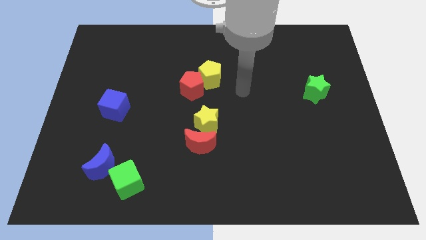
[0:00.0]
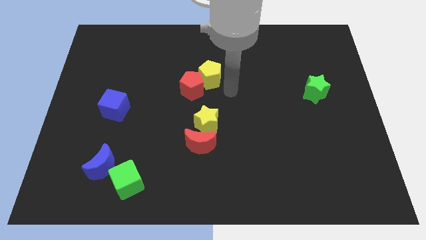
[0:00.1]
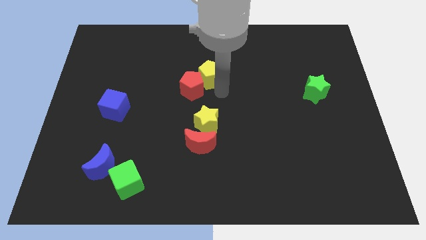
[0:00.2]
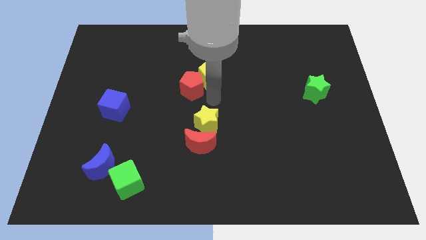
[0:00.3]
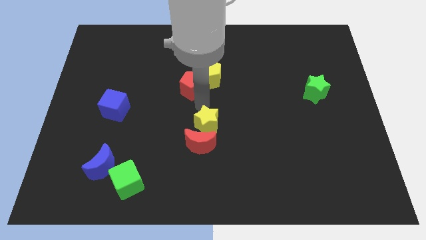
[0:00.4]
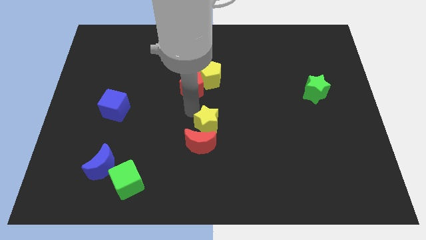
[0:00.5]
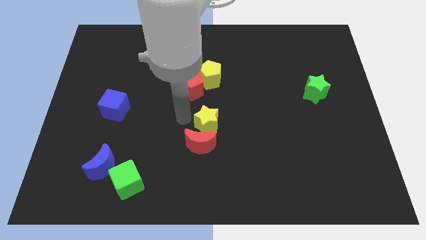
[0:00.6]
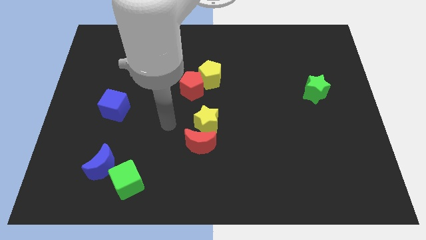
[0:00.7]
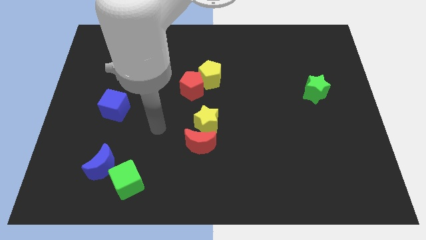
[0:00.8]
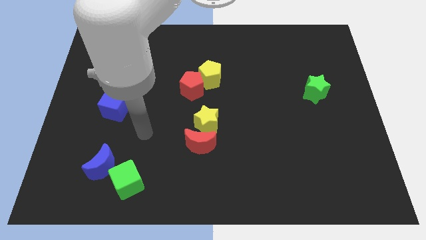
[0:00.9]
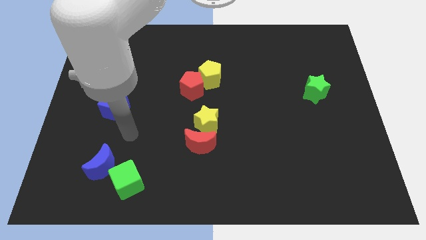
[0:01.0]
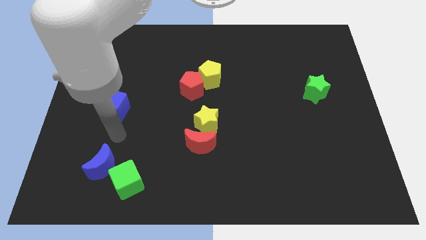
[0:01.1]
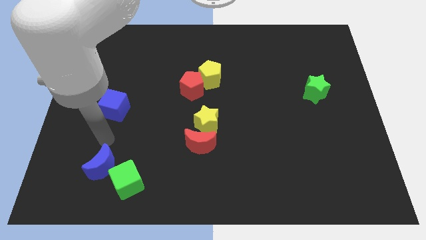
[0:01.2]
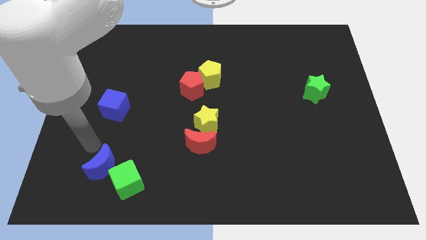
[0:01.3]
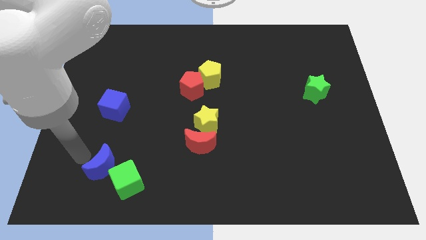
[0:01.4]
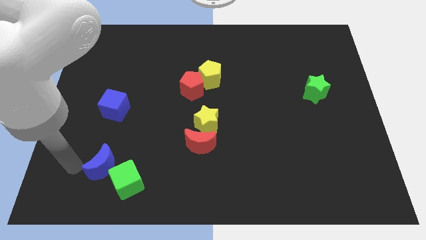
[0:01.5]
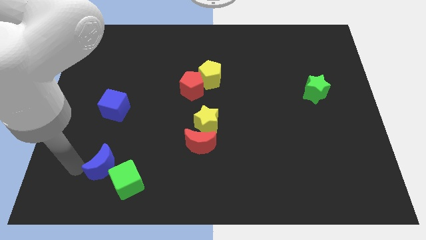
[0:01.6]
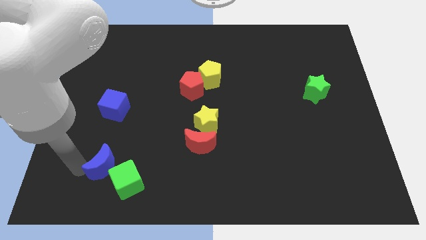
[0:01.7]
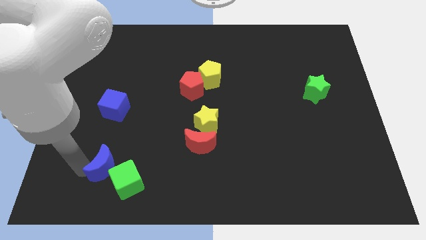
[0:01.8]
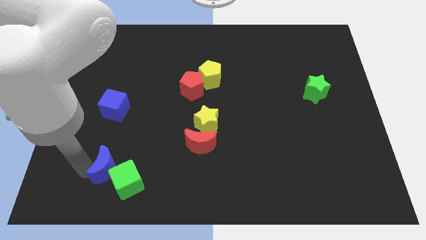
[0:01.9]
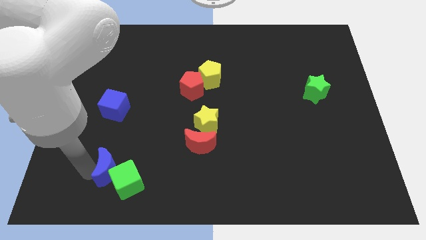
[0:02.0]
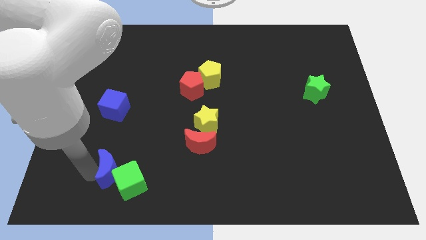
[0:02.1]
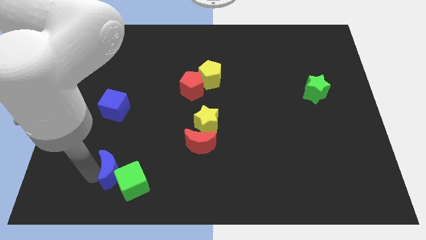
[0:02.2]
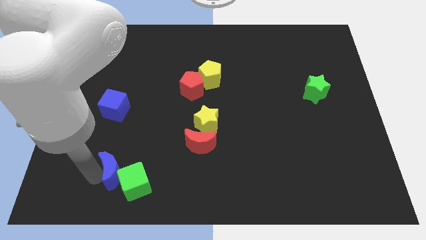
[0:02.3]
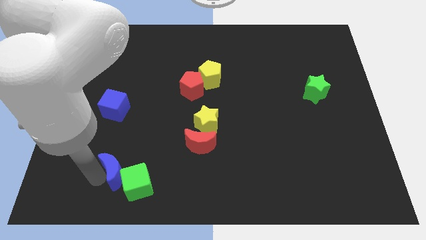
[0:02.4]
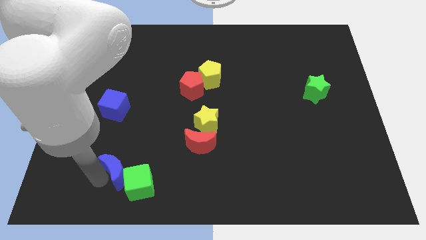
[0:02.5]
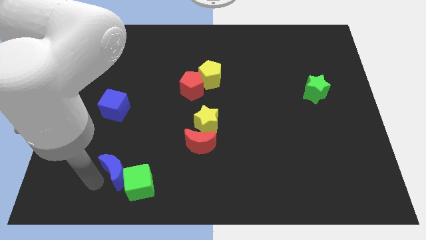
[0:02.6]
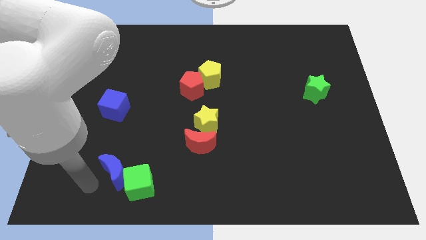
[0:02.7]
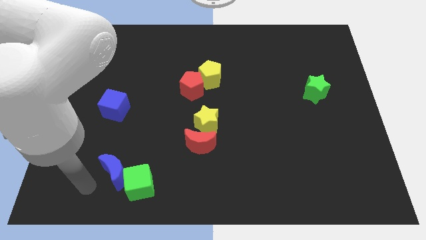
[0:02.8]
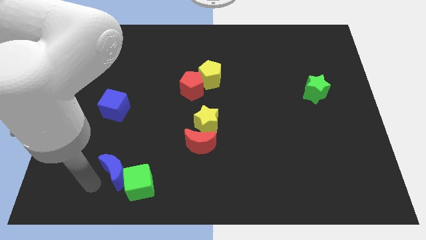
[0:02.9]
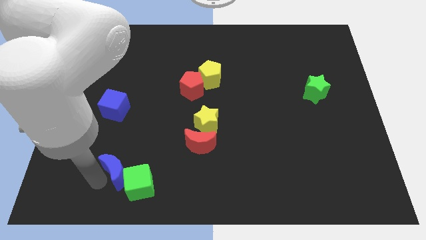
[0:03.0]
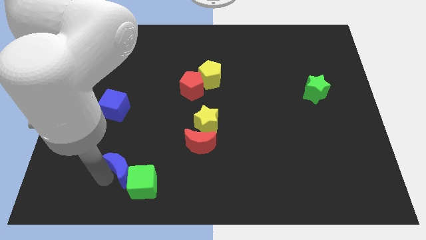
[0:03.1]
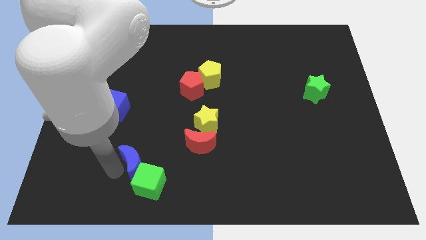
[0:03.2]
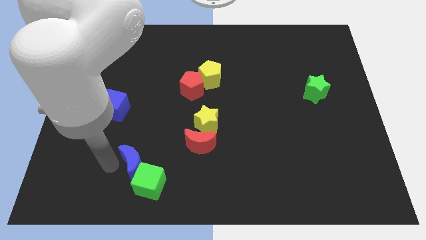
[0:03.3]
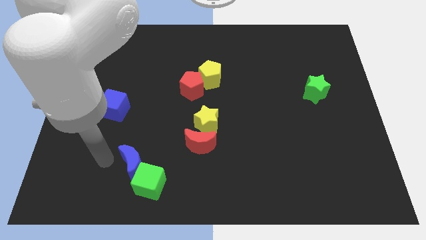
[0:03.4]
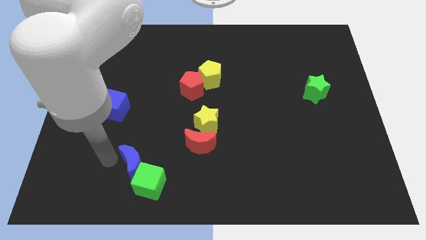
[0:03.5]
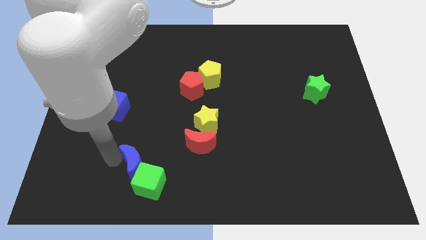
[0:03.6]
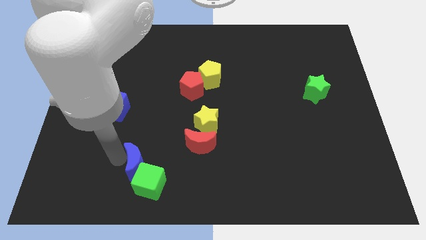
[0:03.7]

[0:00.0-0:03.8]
push the blue moon a bit right

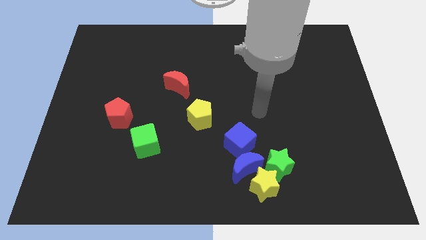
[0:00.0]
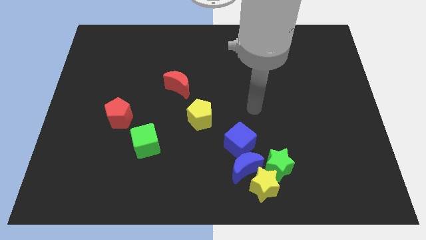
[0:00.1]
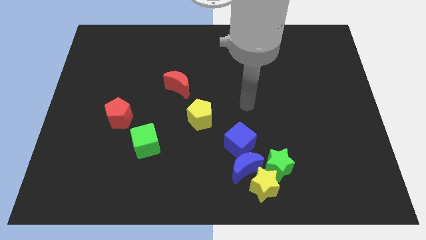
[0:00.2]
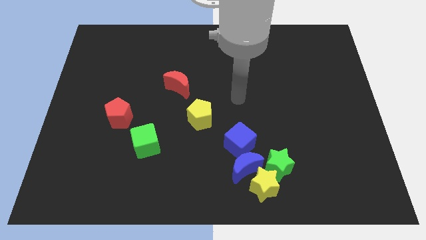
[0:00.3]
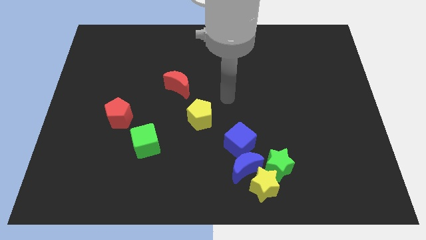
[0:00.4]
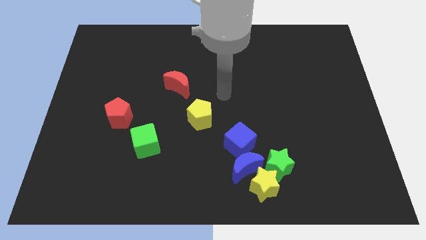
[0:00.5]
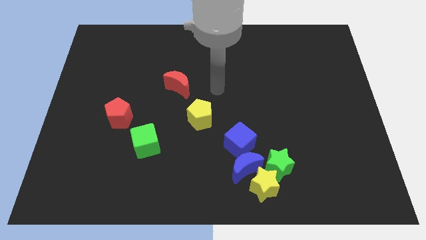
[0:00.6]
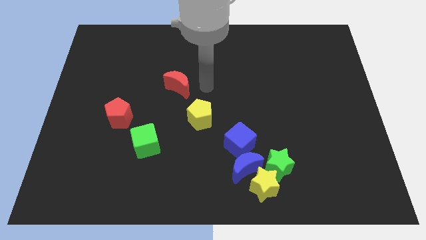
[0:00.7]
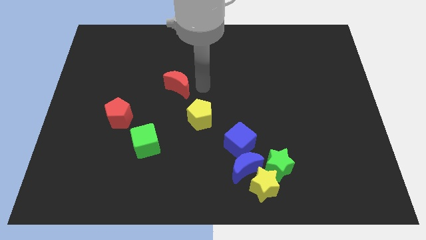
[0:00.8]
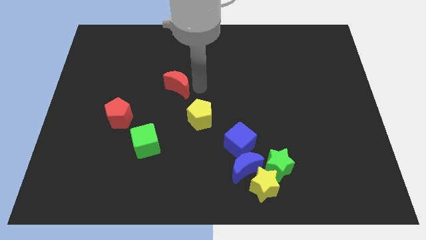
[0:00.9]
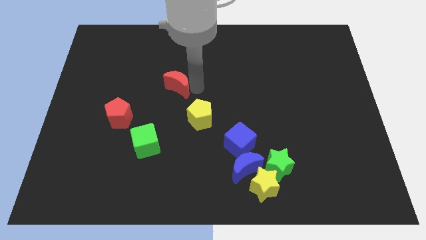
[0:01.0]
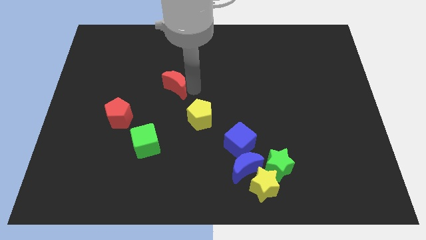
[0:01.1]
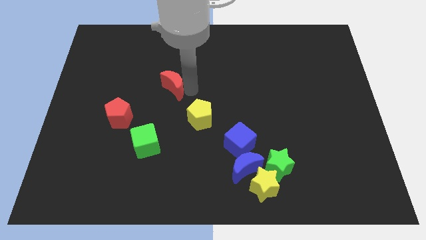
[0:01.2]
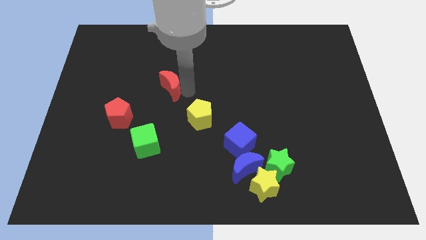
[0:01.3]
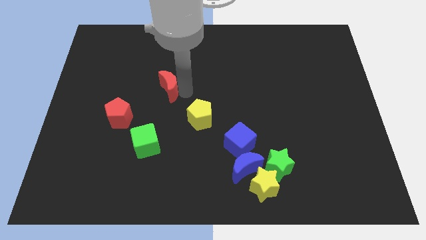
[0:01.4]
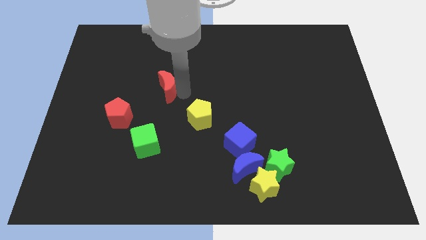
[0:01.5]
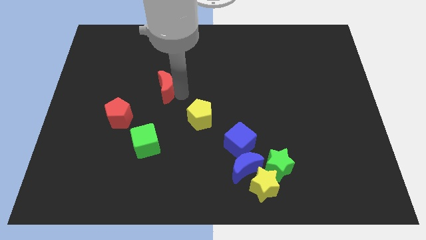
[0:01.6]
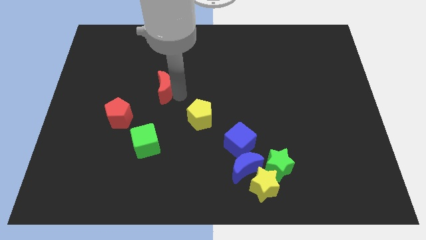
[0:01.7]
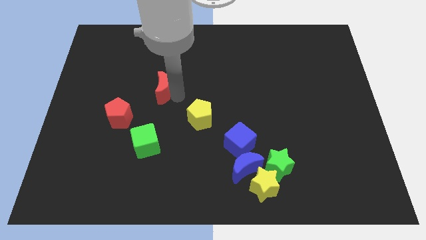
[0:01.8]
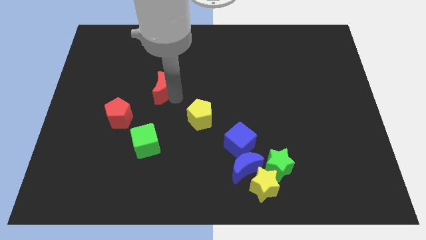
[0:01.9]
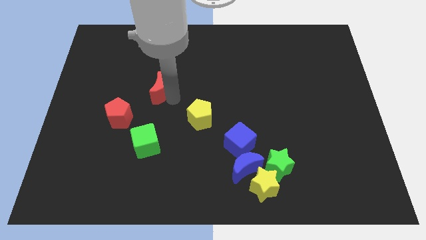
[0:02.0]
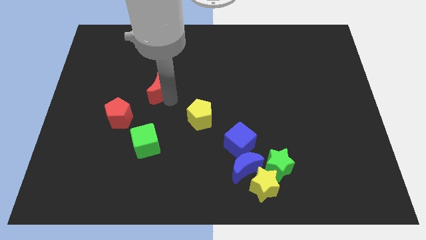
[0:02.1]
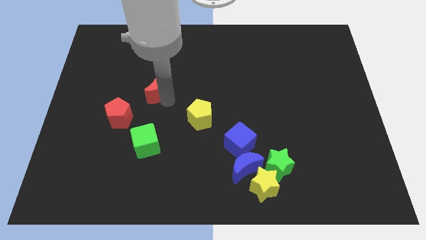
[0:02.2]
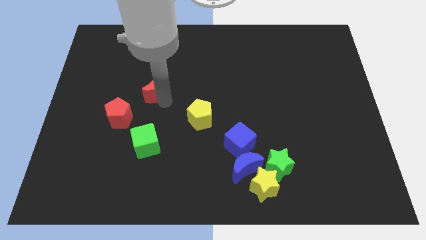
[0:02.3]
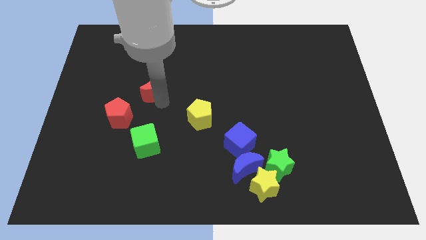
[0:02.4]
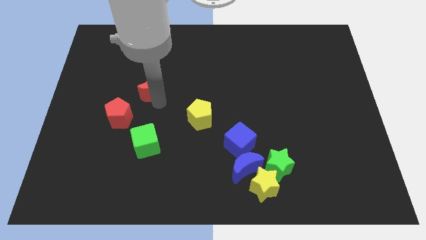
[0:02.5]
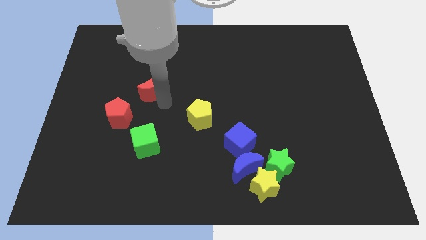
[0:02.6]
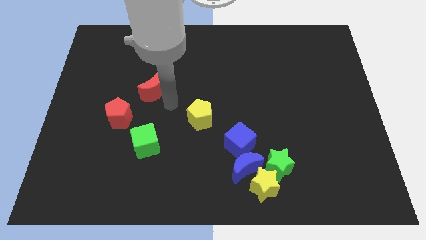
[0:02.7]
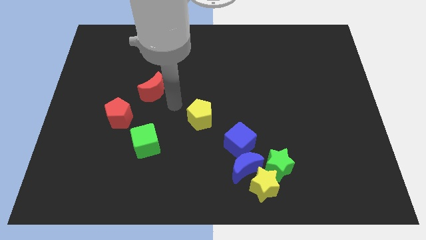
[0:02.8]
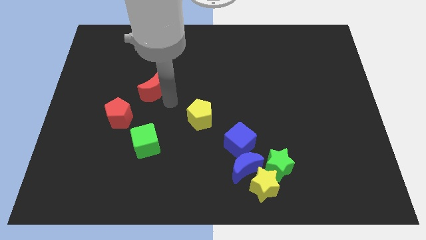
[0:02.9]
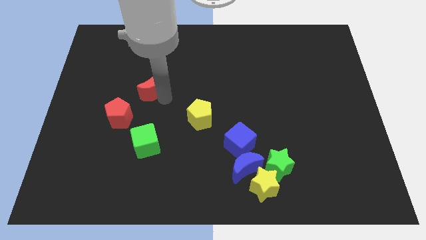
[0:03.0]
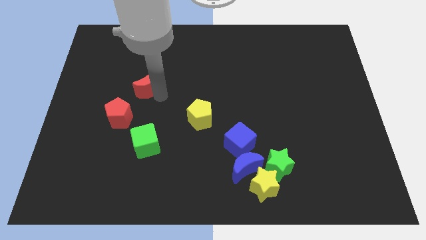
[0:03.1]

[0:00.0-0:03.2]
move the red moon to the left a bit

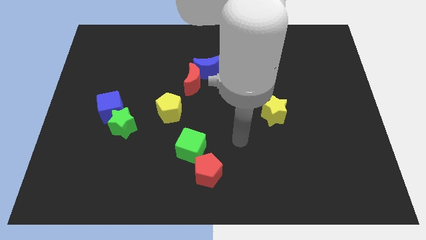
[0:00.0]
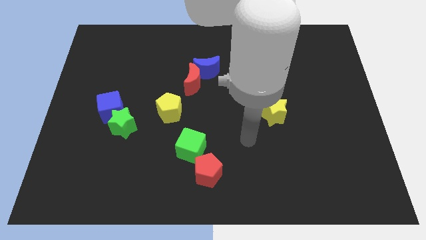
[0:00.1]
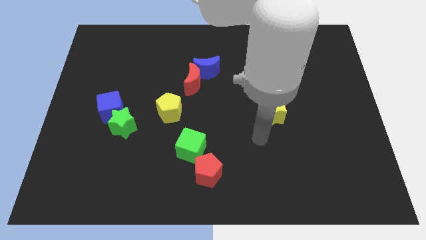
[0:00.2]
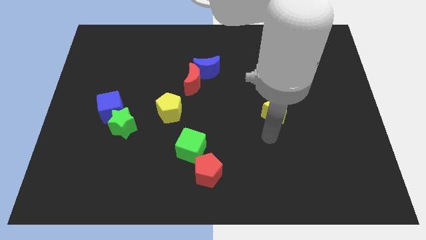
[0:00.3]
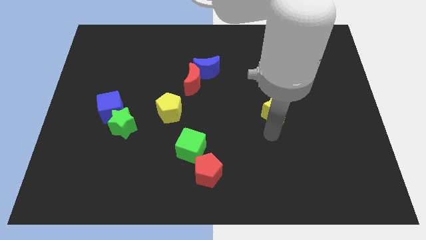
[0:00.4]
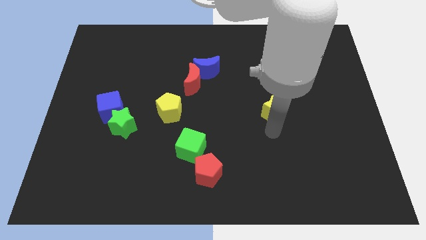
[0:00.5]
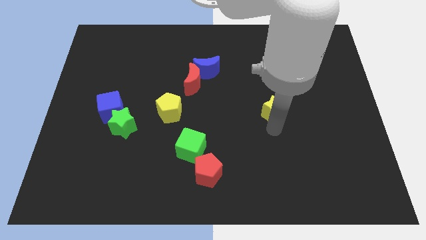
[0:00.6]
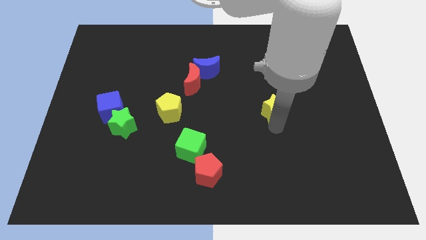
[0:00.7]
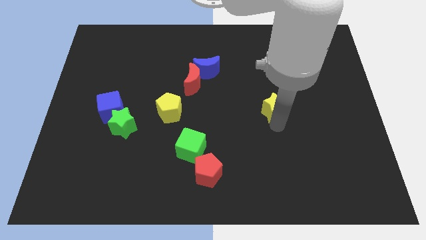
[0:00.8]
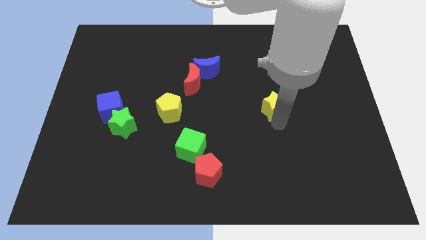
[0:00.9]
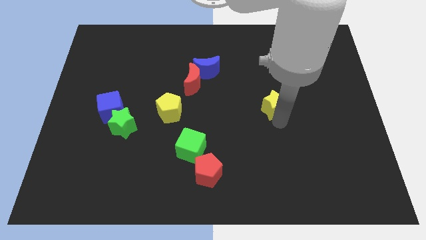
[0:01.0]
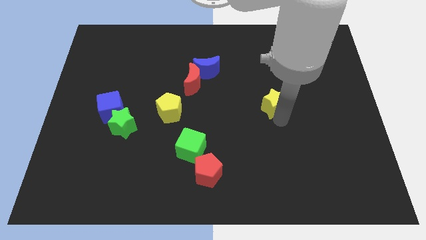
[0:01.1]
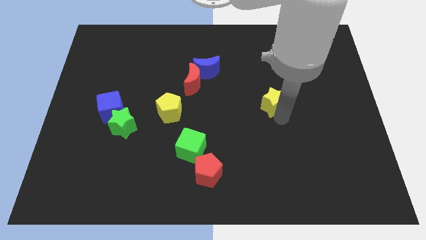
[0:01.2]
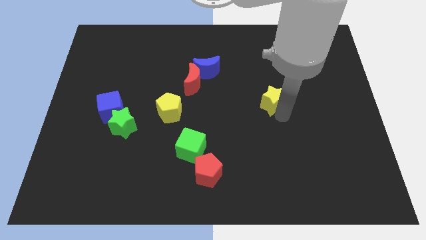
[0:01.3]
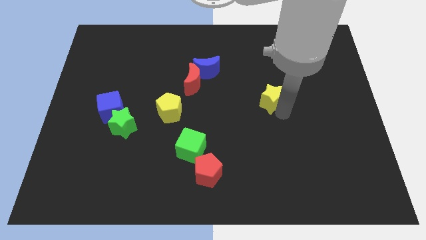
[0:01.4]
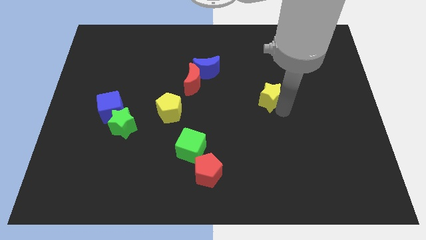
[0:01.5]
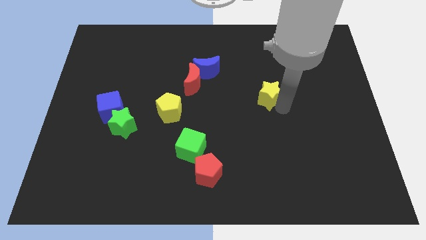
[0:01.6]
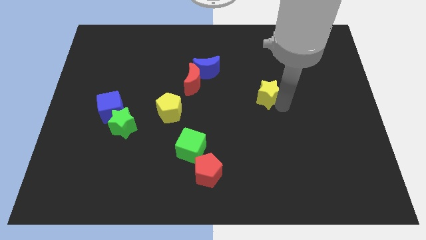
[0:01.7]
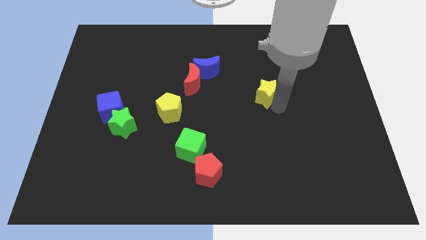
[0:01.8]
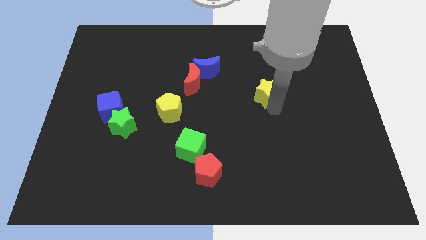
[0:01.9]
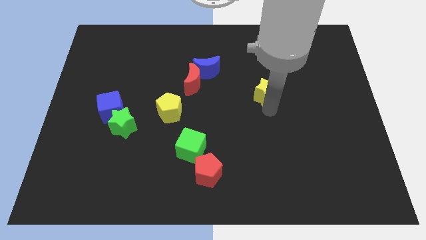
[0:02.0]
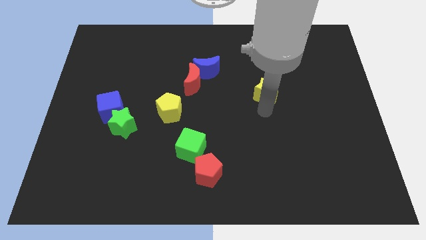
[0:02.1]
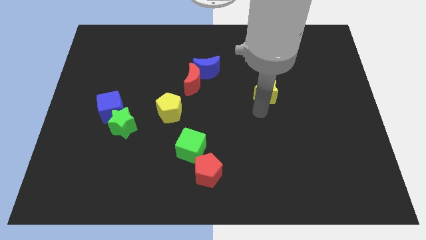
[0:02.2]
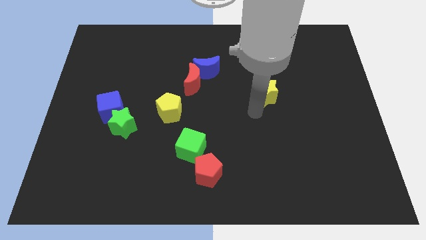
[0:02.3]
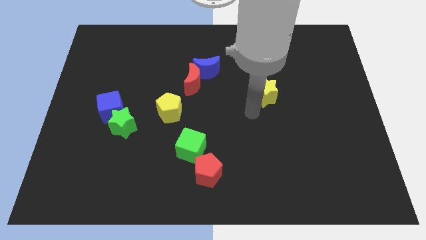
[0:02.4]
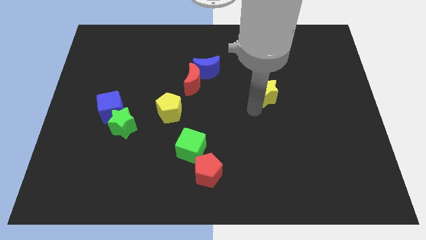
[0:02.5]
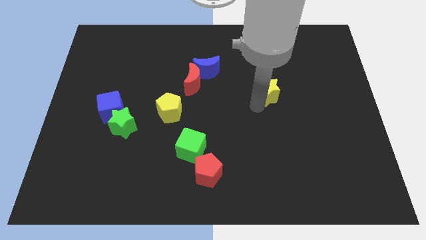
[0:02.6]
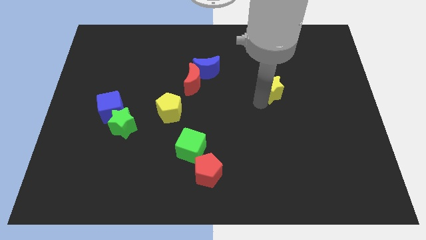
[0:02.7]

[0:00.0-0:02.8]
slide the yellow star up a bit
